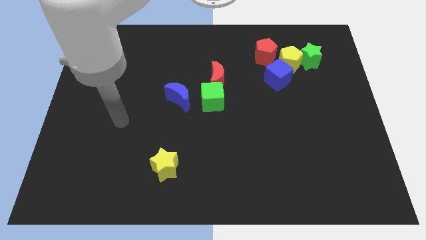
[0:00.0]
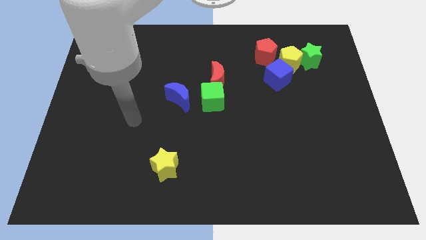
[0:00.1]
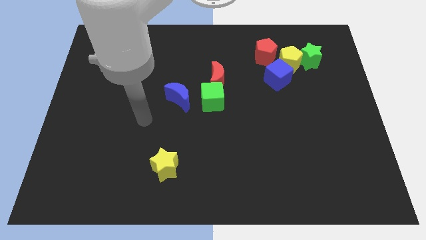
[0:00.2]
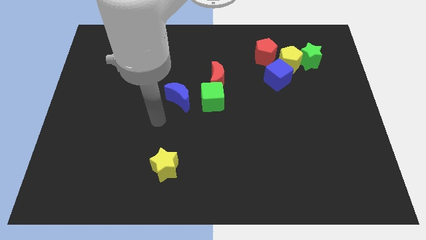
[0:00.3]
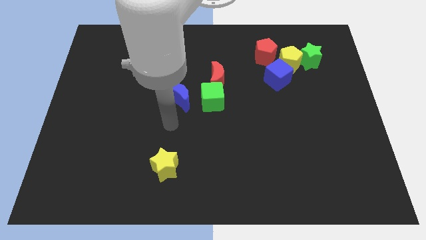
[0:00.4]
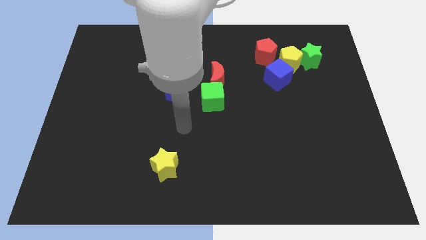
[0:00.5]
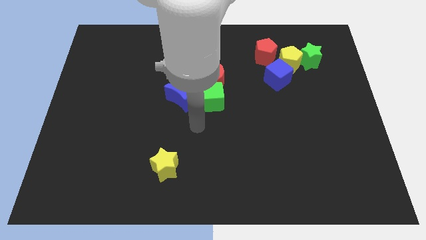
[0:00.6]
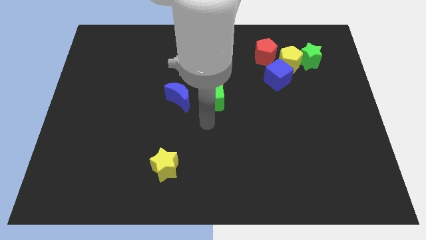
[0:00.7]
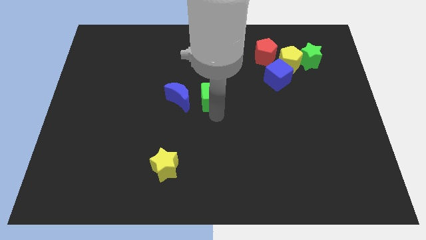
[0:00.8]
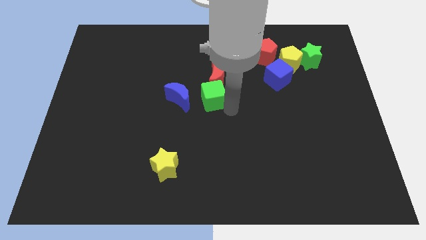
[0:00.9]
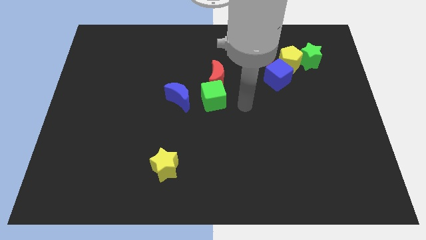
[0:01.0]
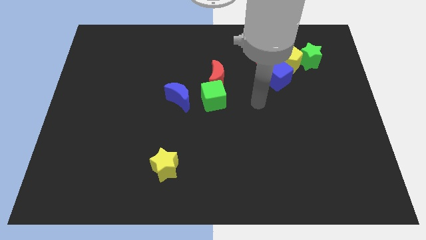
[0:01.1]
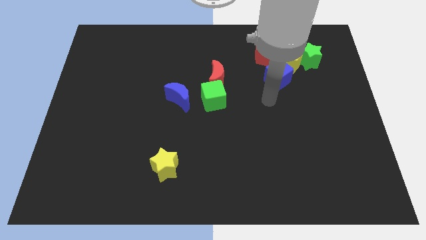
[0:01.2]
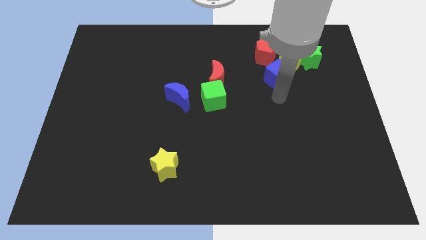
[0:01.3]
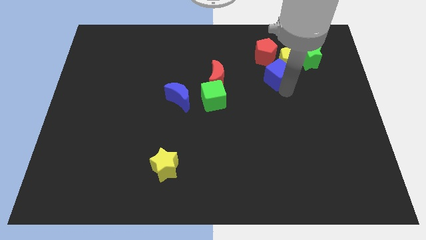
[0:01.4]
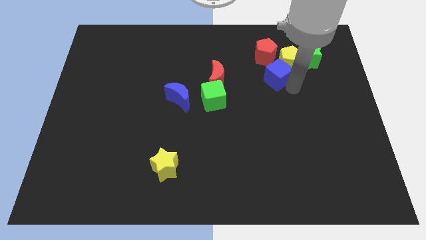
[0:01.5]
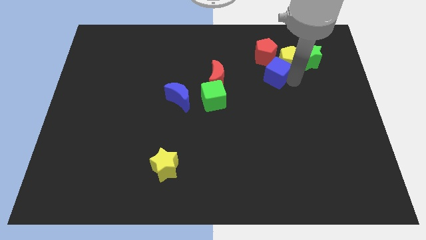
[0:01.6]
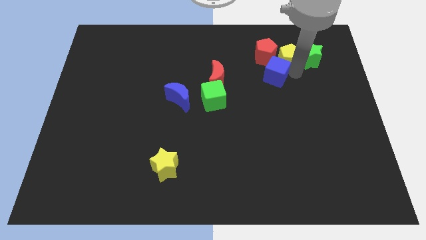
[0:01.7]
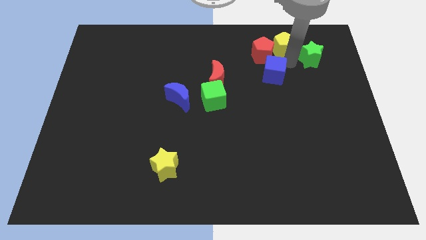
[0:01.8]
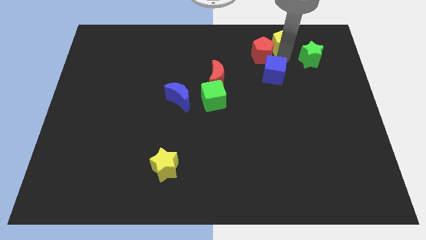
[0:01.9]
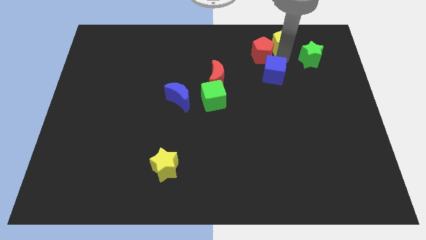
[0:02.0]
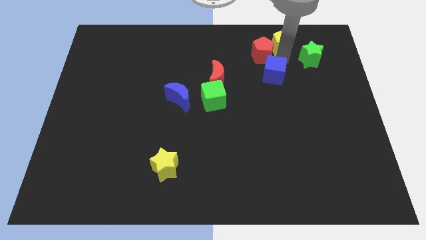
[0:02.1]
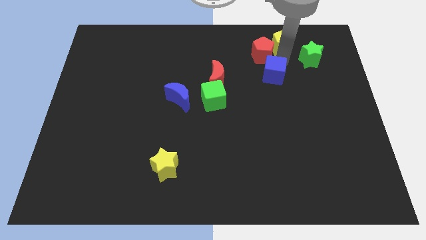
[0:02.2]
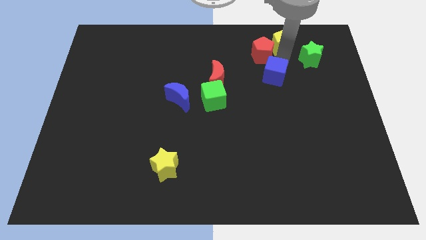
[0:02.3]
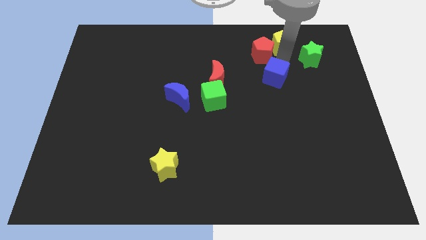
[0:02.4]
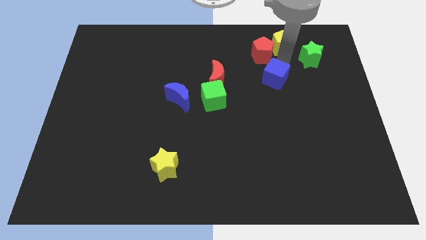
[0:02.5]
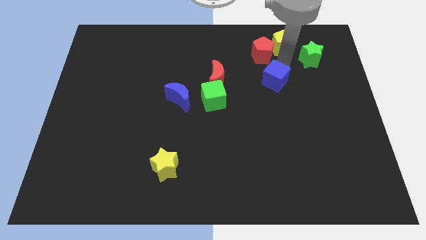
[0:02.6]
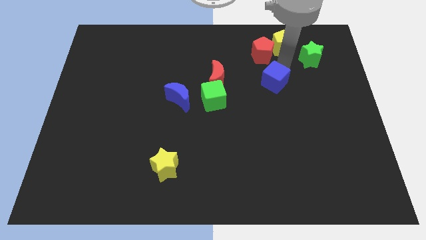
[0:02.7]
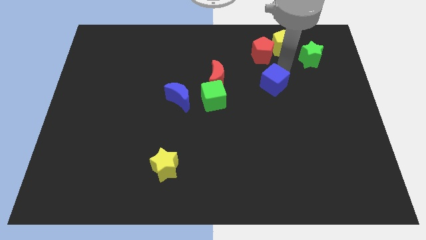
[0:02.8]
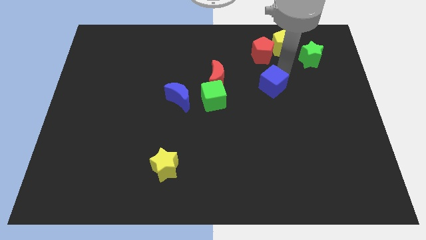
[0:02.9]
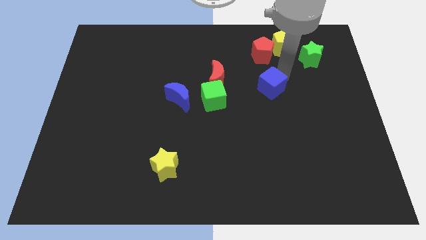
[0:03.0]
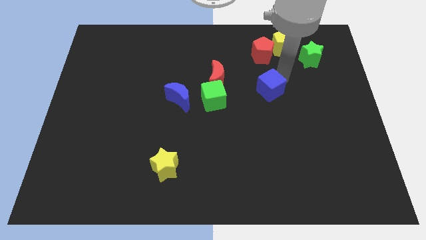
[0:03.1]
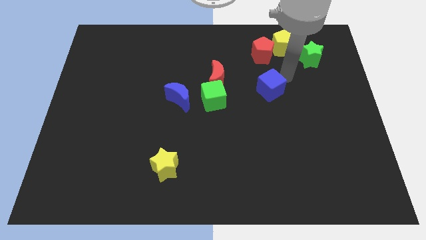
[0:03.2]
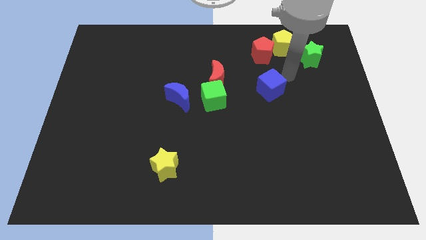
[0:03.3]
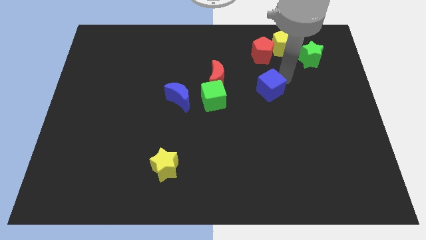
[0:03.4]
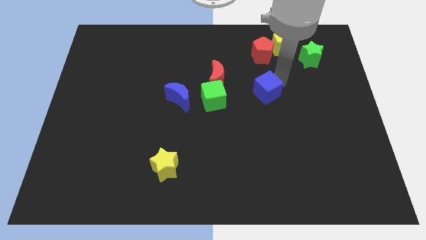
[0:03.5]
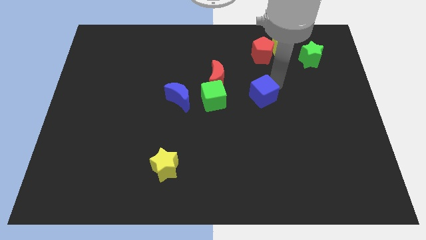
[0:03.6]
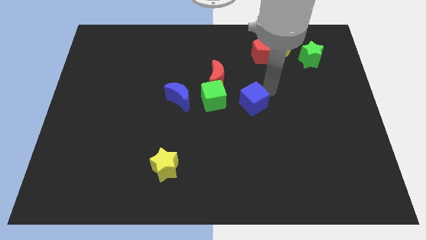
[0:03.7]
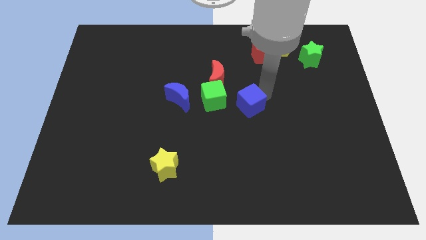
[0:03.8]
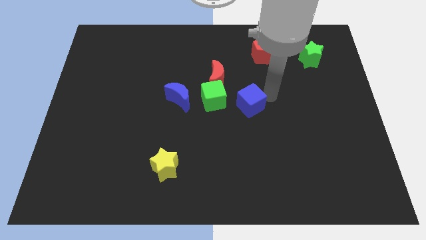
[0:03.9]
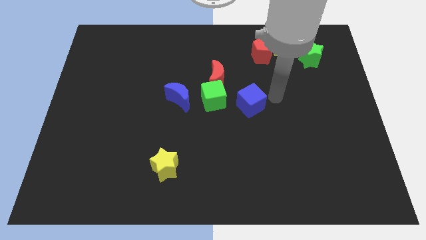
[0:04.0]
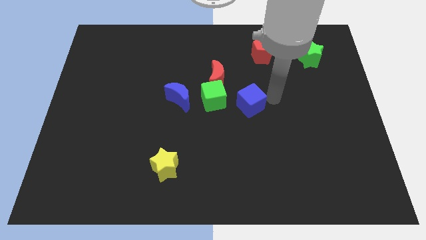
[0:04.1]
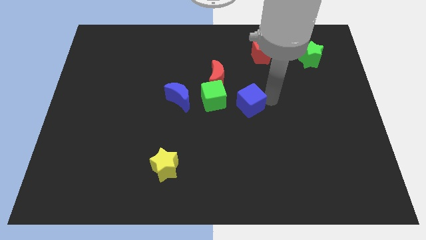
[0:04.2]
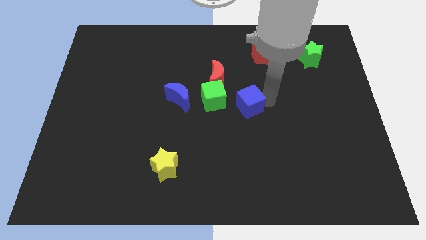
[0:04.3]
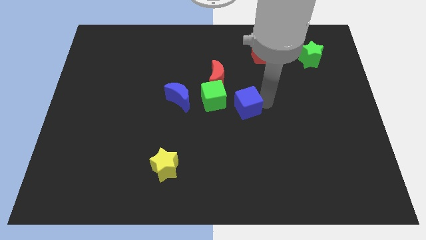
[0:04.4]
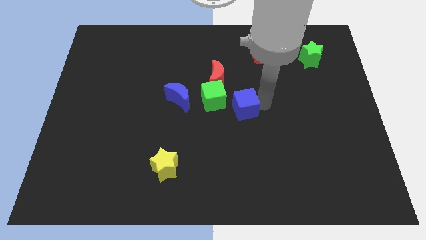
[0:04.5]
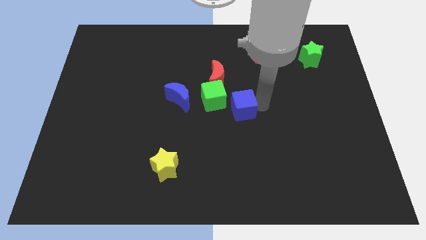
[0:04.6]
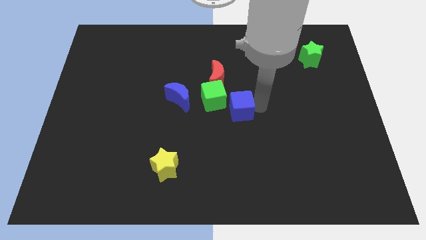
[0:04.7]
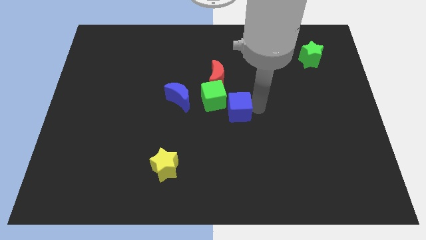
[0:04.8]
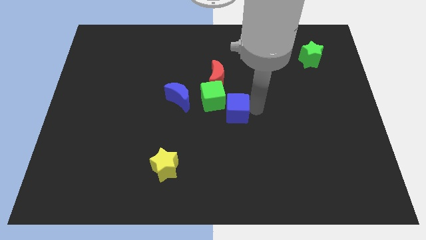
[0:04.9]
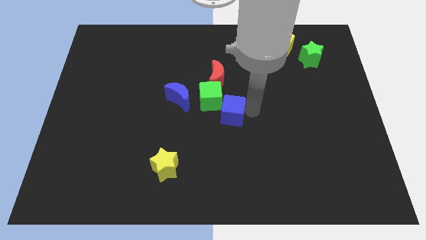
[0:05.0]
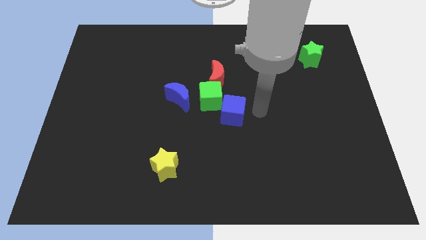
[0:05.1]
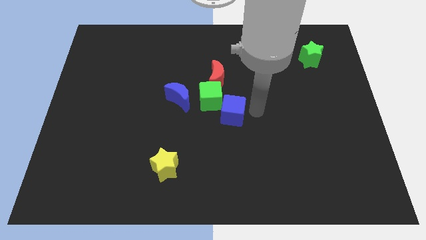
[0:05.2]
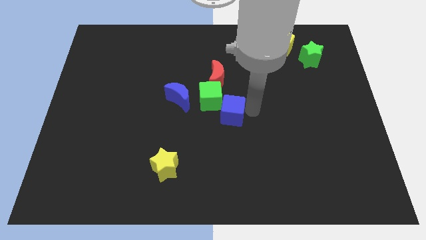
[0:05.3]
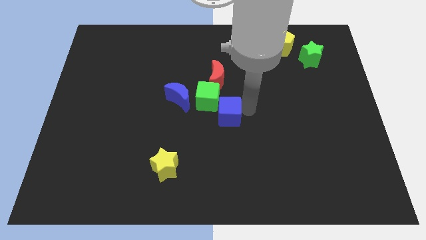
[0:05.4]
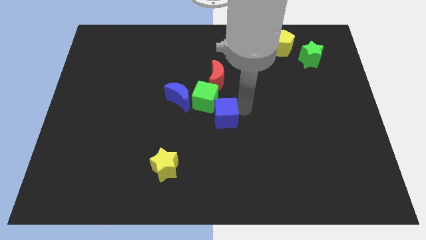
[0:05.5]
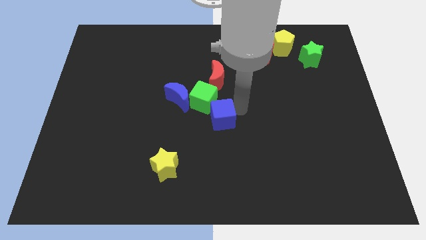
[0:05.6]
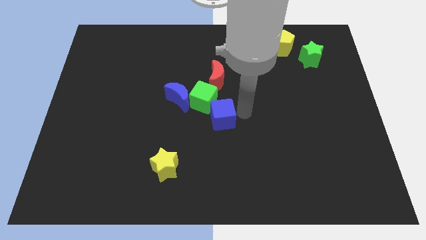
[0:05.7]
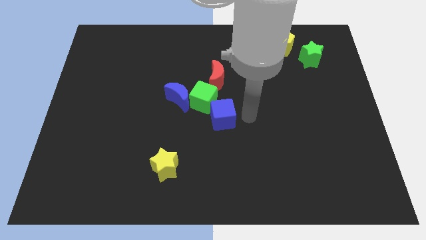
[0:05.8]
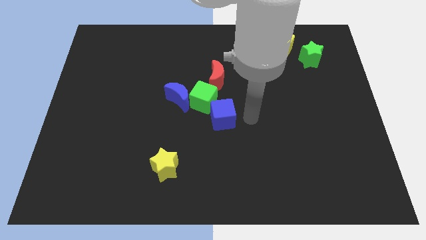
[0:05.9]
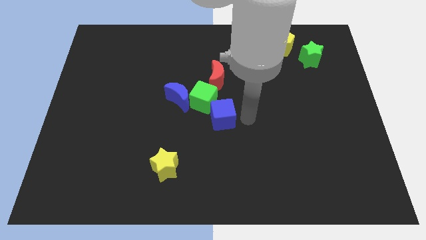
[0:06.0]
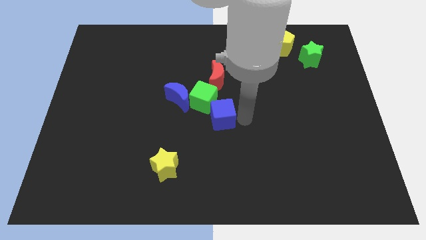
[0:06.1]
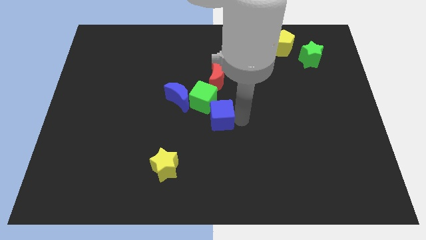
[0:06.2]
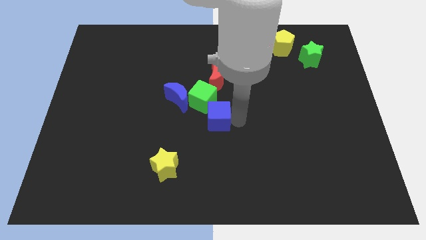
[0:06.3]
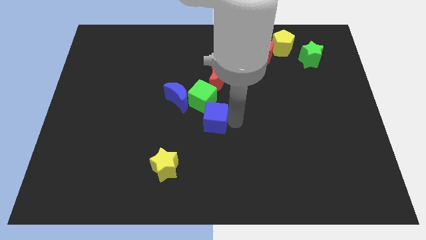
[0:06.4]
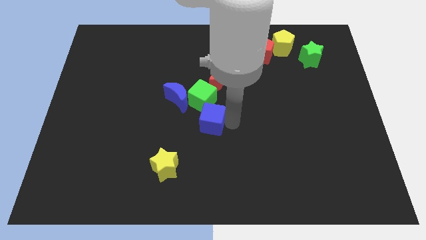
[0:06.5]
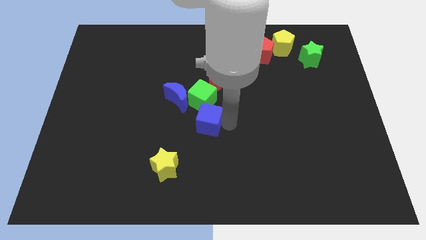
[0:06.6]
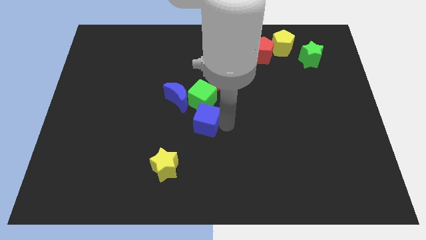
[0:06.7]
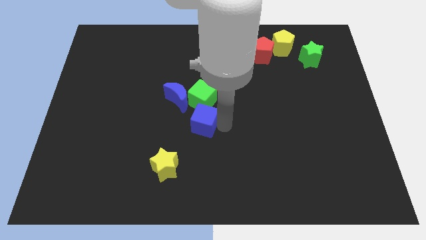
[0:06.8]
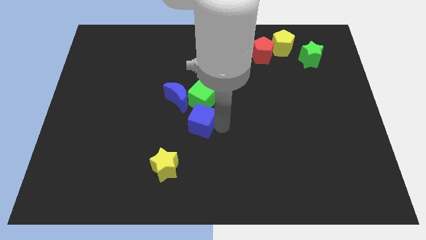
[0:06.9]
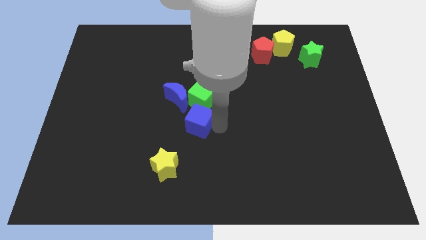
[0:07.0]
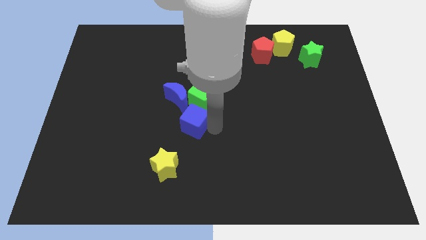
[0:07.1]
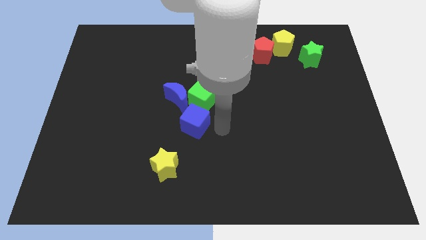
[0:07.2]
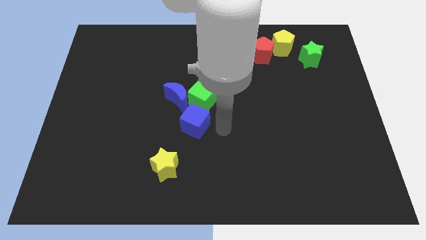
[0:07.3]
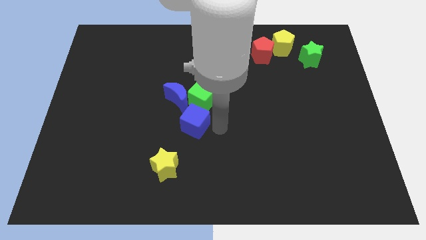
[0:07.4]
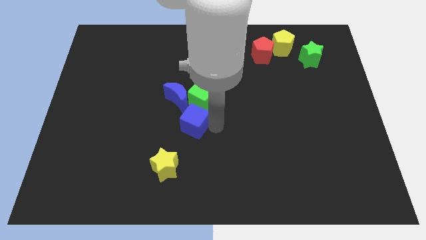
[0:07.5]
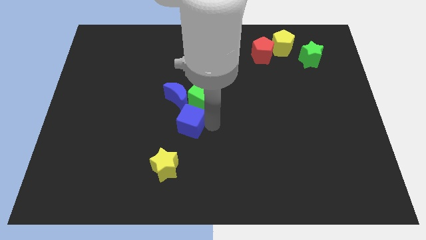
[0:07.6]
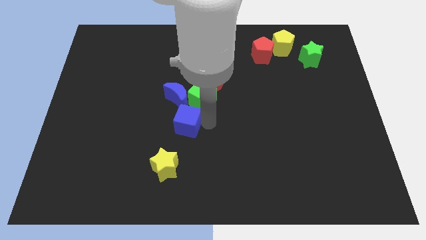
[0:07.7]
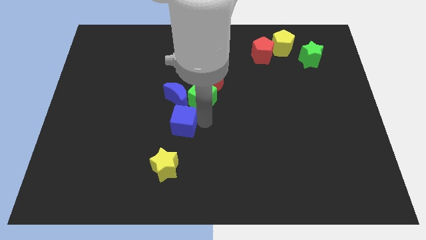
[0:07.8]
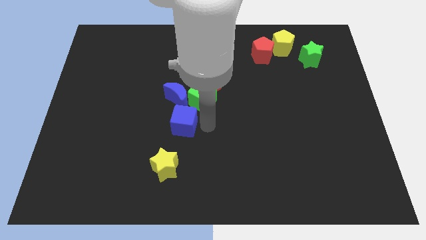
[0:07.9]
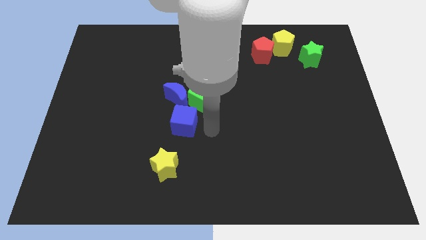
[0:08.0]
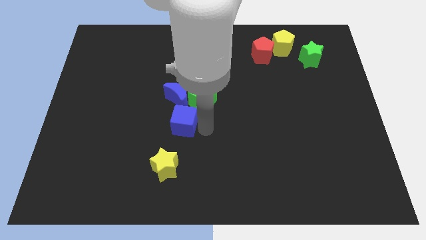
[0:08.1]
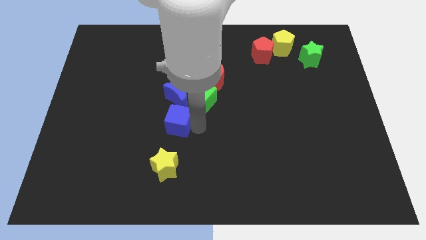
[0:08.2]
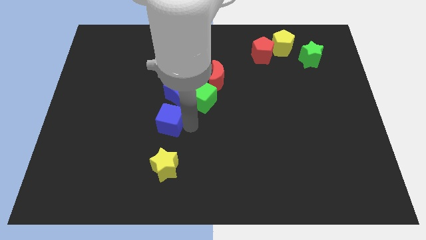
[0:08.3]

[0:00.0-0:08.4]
move the blue cube diagonally down and to the left of the blue moon
